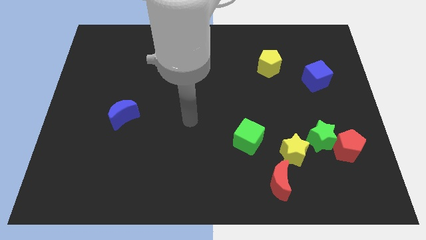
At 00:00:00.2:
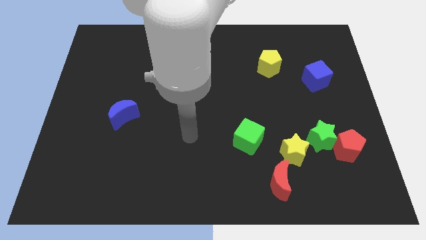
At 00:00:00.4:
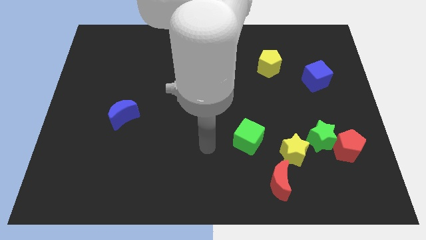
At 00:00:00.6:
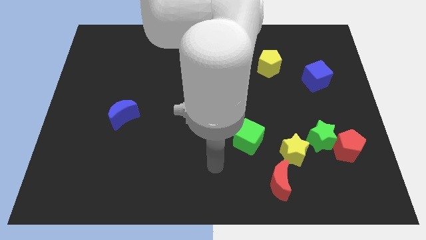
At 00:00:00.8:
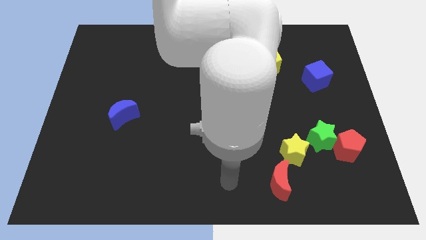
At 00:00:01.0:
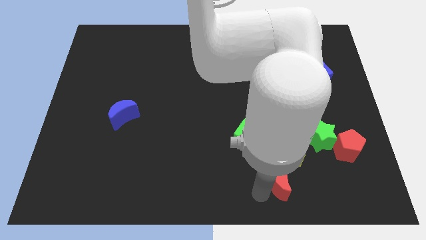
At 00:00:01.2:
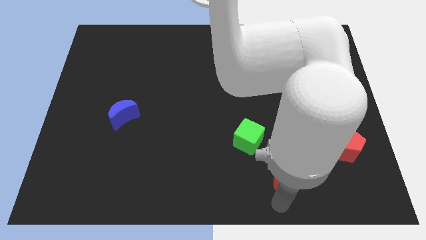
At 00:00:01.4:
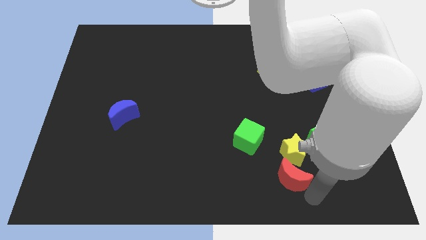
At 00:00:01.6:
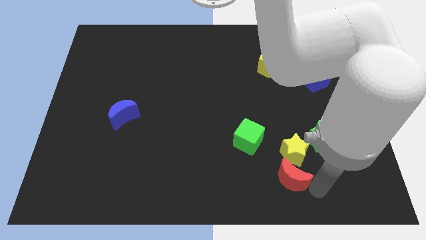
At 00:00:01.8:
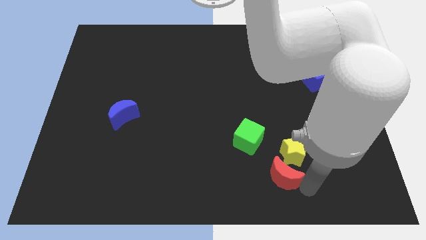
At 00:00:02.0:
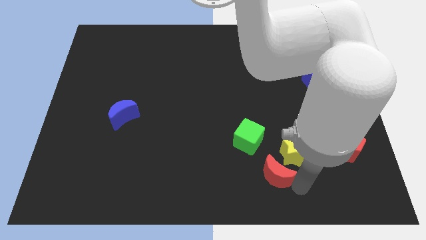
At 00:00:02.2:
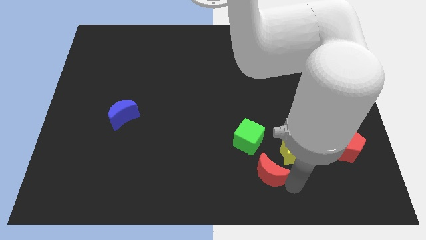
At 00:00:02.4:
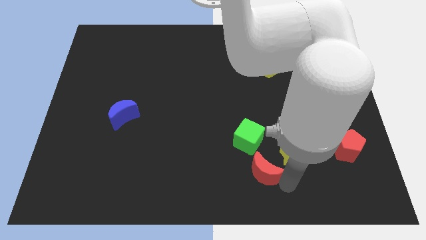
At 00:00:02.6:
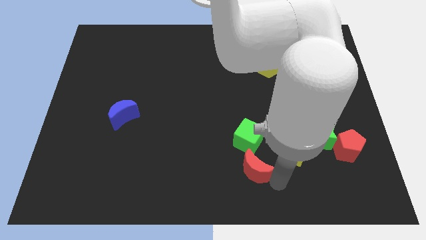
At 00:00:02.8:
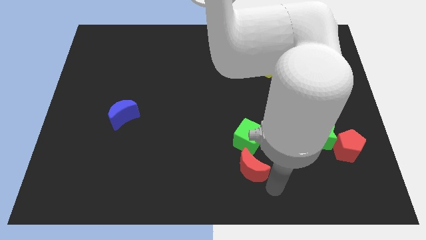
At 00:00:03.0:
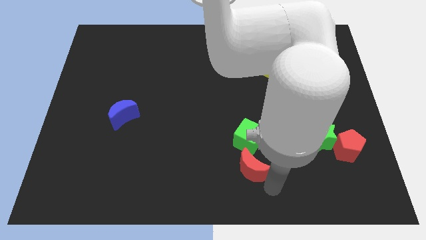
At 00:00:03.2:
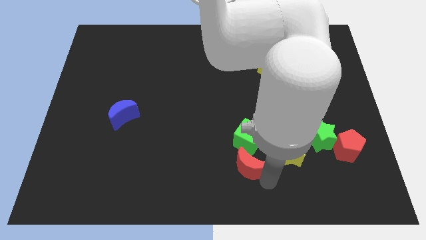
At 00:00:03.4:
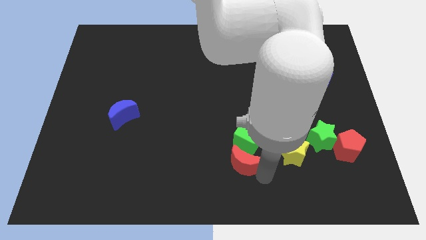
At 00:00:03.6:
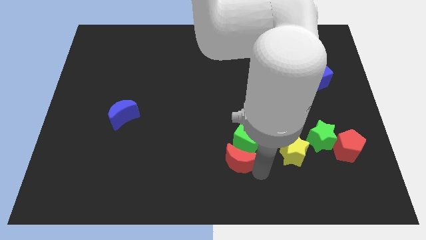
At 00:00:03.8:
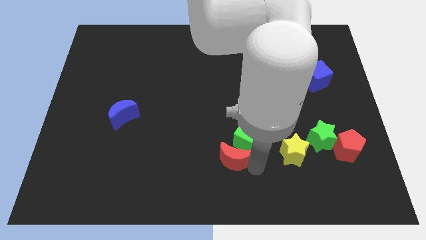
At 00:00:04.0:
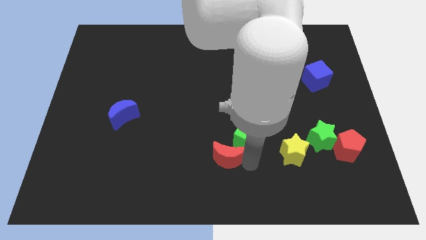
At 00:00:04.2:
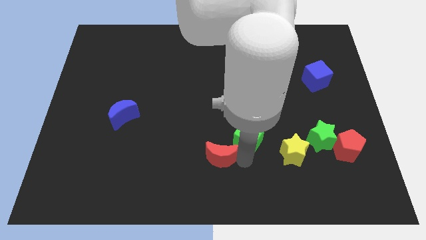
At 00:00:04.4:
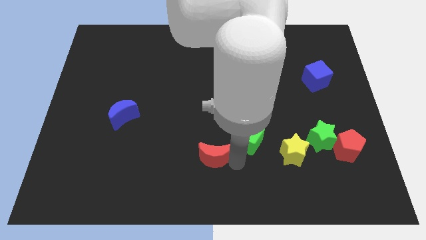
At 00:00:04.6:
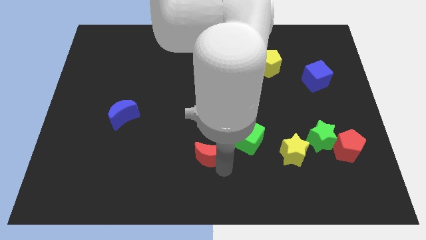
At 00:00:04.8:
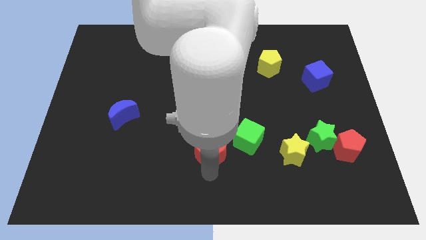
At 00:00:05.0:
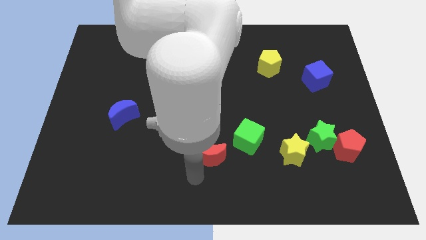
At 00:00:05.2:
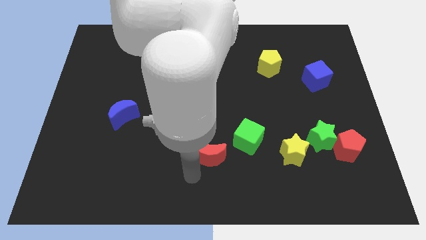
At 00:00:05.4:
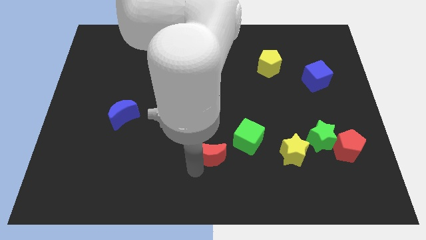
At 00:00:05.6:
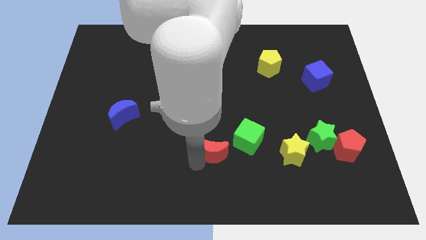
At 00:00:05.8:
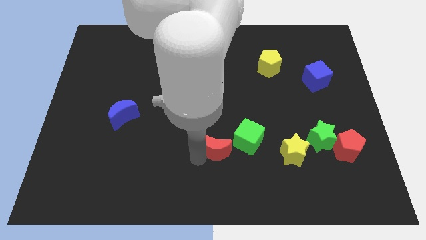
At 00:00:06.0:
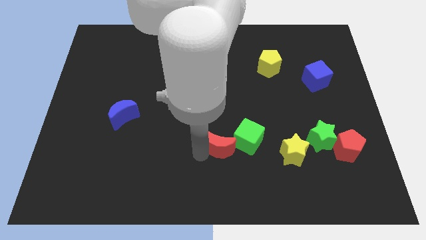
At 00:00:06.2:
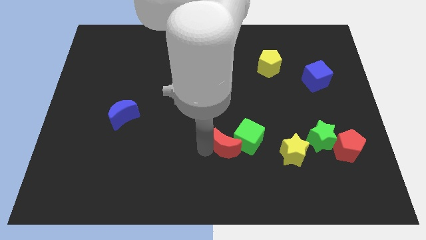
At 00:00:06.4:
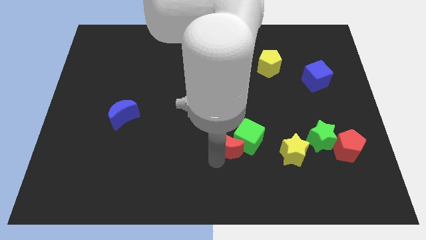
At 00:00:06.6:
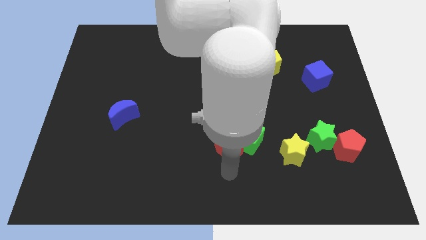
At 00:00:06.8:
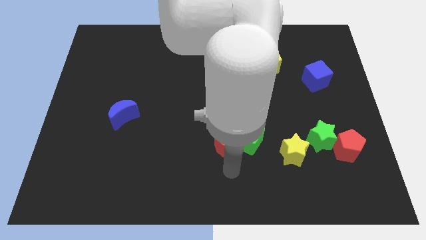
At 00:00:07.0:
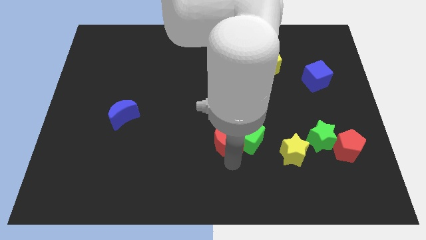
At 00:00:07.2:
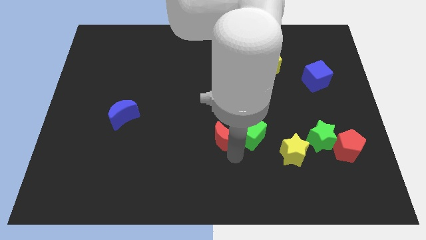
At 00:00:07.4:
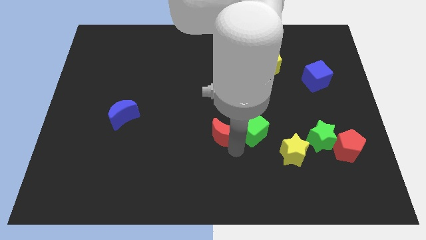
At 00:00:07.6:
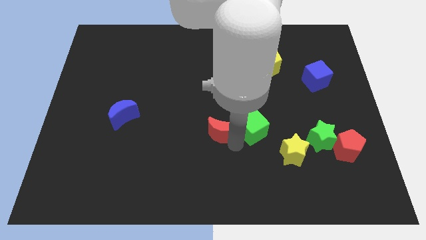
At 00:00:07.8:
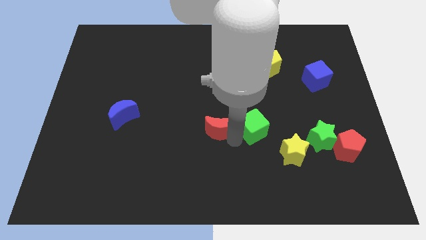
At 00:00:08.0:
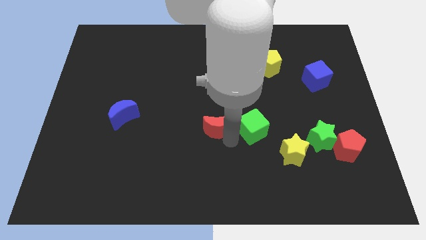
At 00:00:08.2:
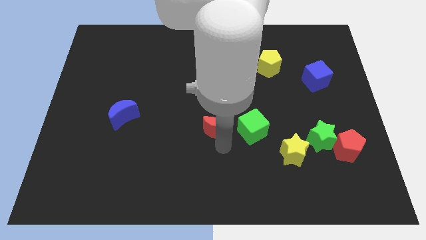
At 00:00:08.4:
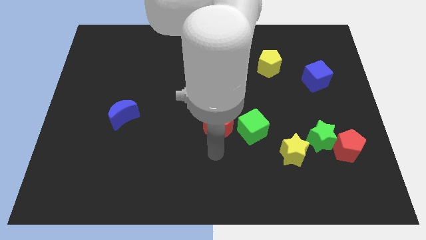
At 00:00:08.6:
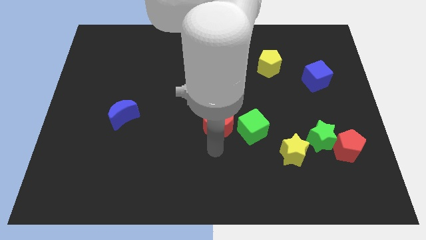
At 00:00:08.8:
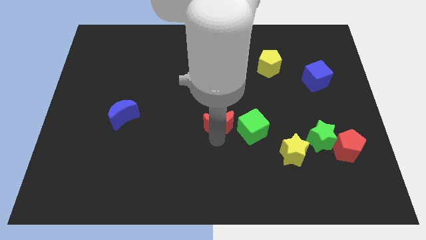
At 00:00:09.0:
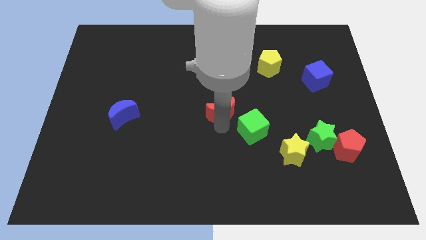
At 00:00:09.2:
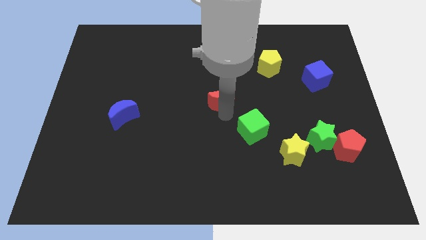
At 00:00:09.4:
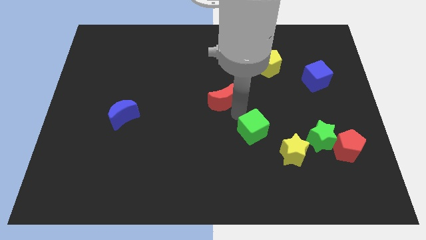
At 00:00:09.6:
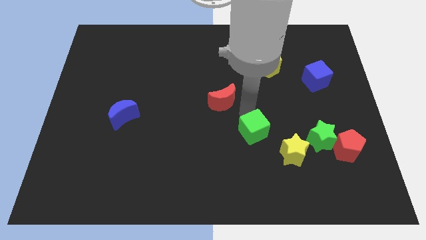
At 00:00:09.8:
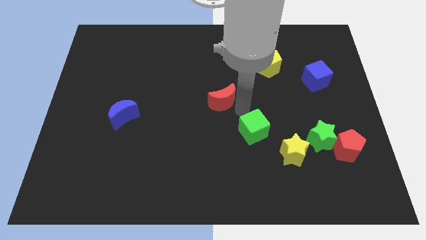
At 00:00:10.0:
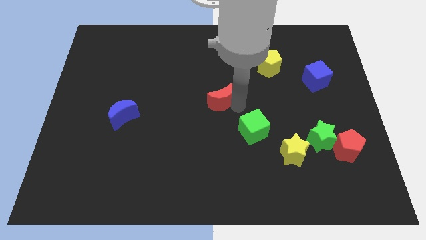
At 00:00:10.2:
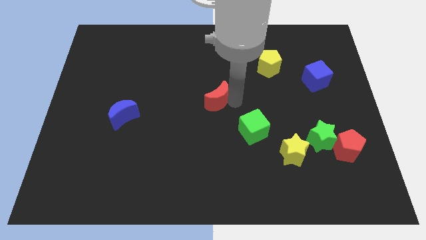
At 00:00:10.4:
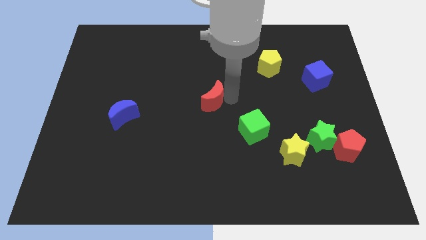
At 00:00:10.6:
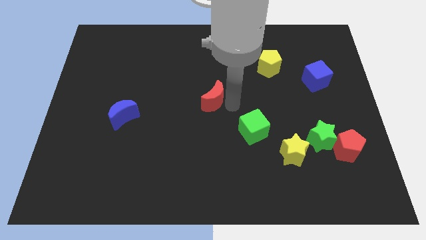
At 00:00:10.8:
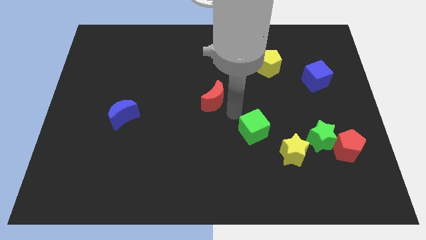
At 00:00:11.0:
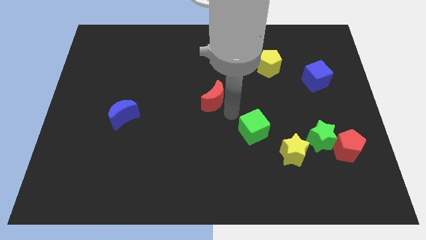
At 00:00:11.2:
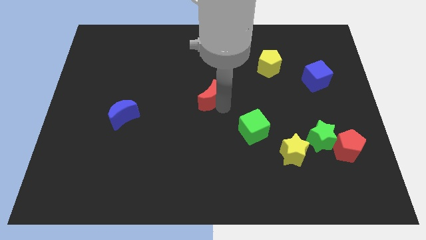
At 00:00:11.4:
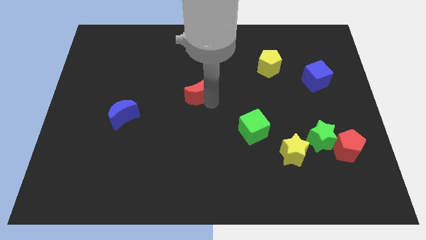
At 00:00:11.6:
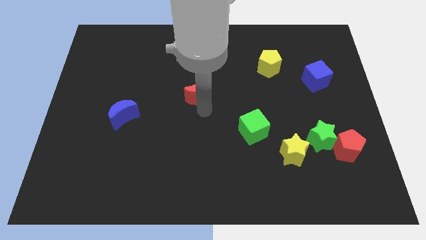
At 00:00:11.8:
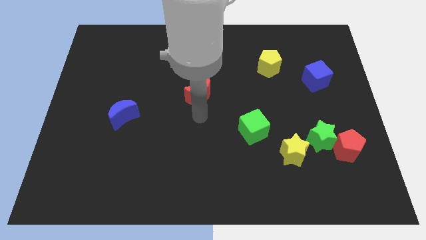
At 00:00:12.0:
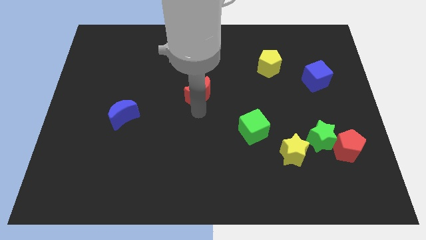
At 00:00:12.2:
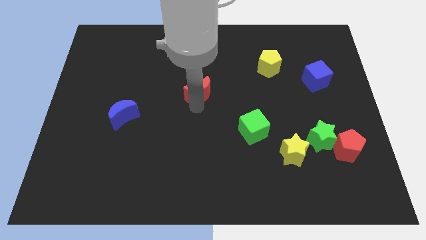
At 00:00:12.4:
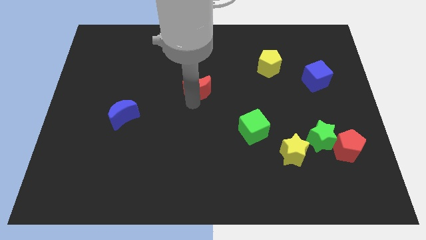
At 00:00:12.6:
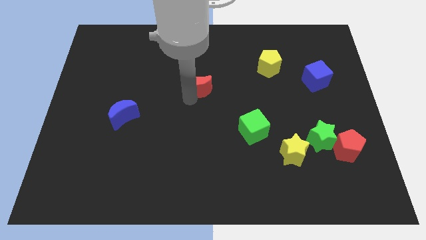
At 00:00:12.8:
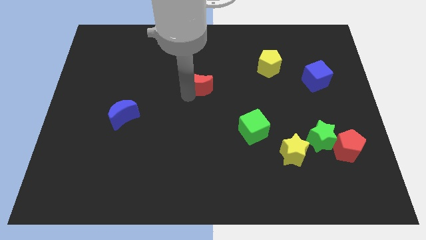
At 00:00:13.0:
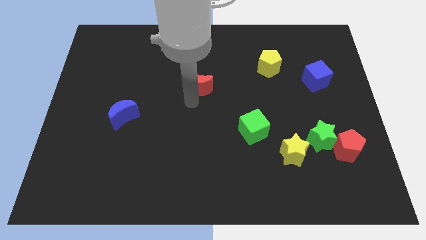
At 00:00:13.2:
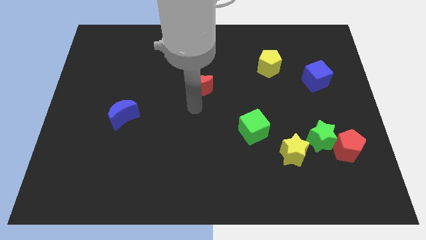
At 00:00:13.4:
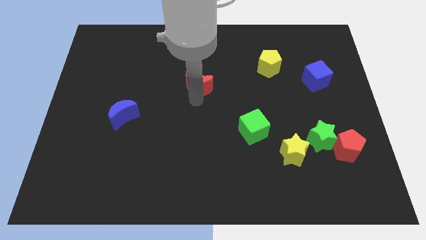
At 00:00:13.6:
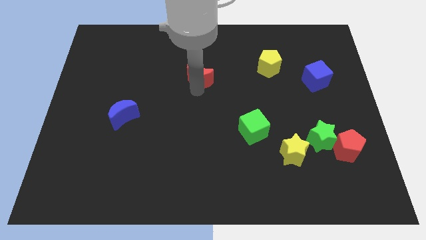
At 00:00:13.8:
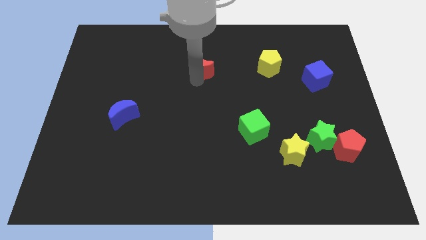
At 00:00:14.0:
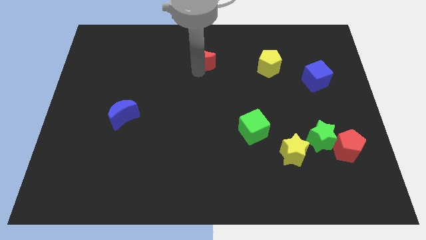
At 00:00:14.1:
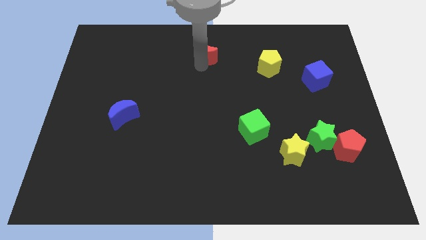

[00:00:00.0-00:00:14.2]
slide the red moon to the towards your base
